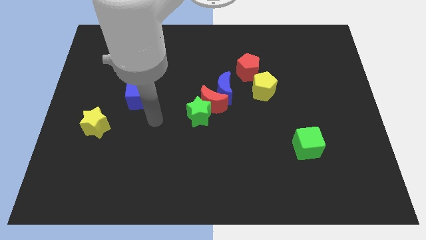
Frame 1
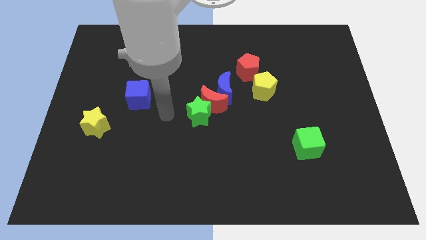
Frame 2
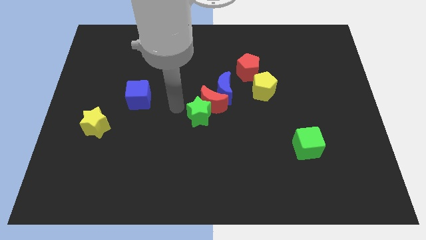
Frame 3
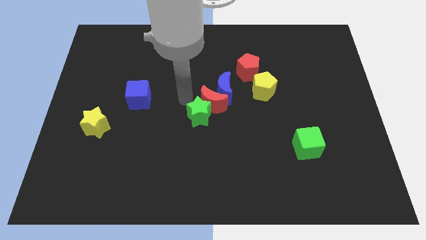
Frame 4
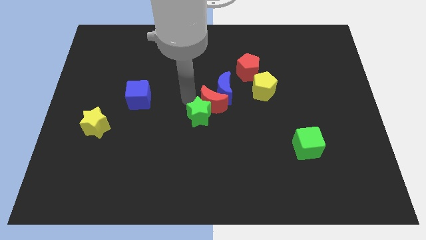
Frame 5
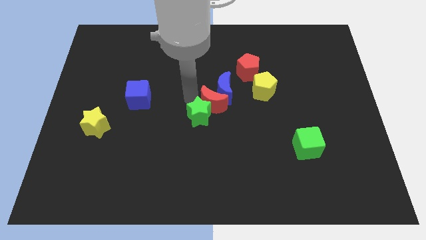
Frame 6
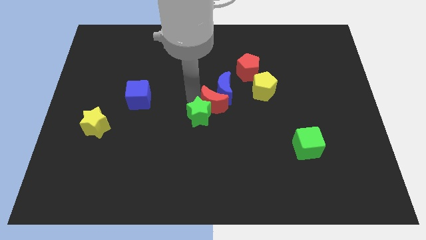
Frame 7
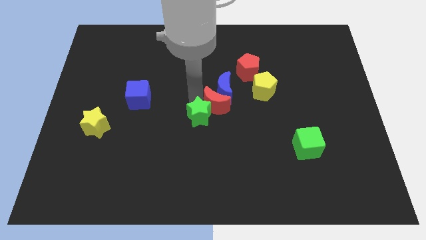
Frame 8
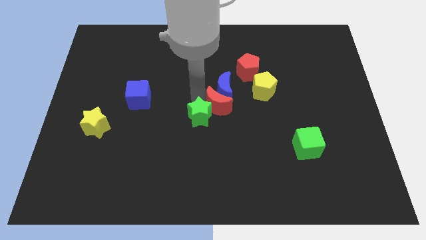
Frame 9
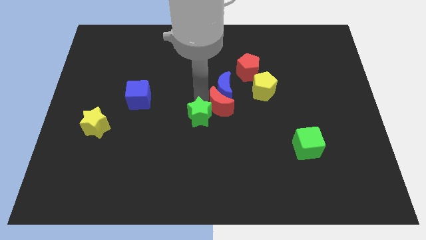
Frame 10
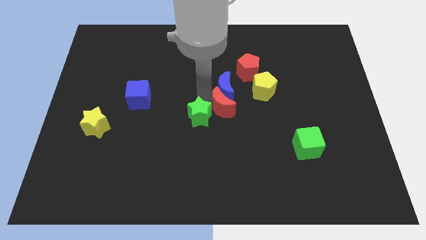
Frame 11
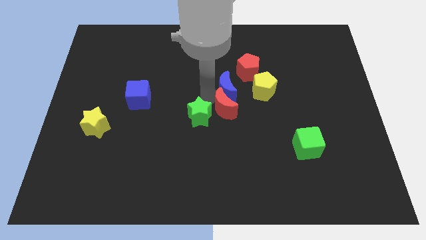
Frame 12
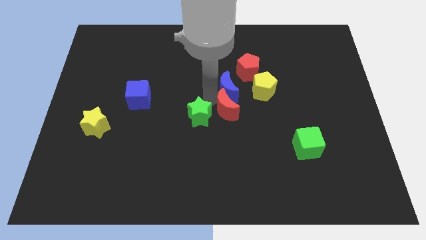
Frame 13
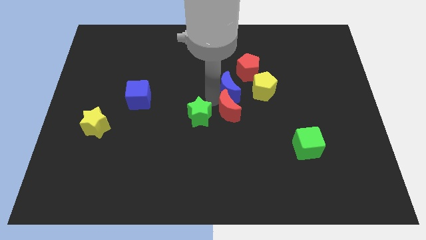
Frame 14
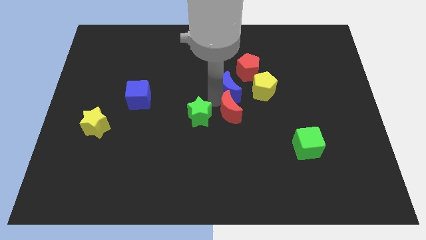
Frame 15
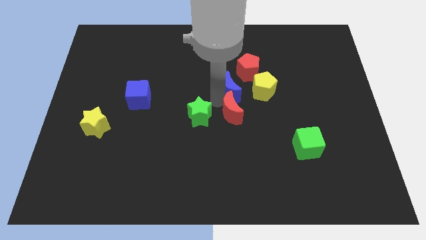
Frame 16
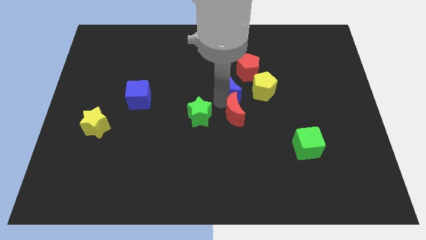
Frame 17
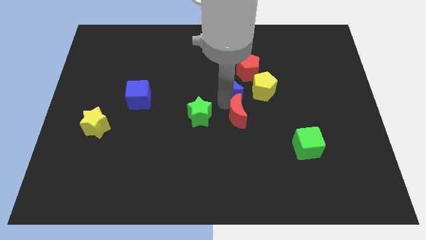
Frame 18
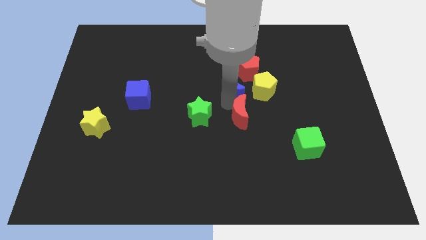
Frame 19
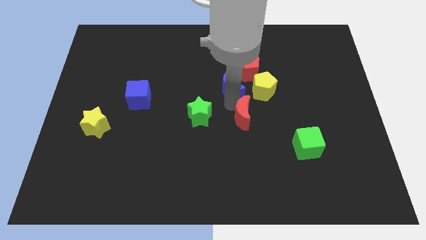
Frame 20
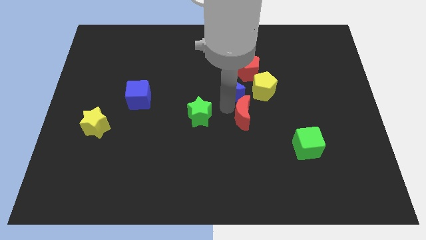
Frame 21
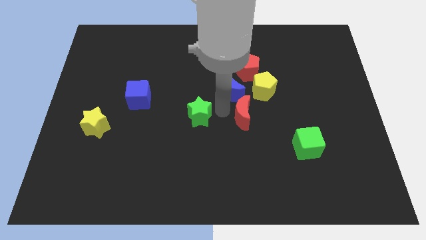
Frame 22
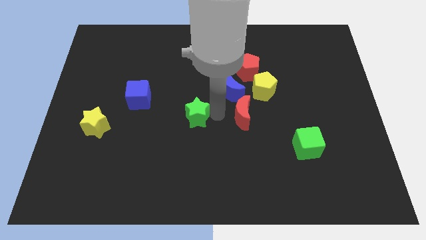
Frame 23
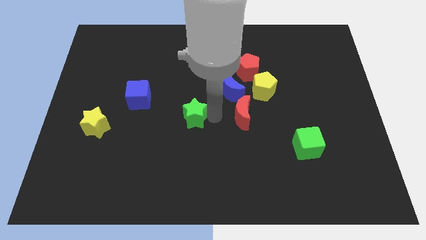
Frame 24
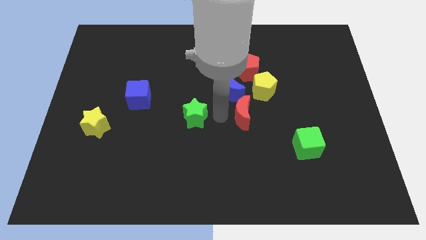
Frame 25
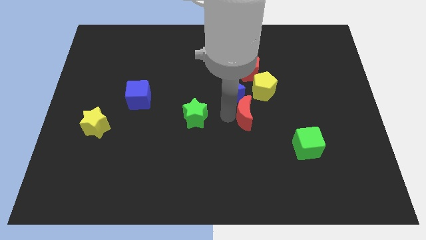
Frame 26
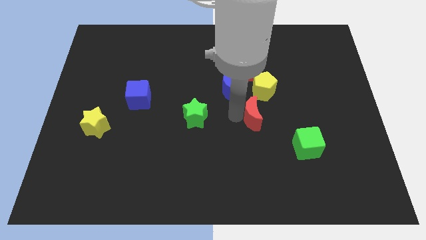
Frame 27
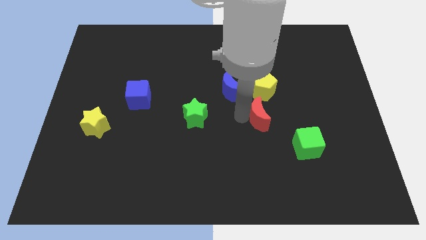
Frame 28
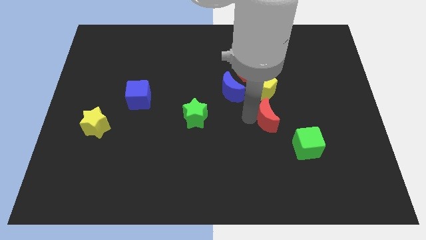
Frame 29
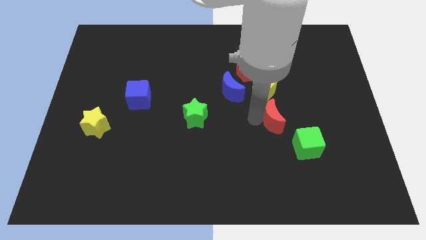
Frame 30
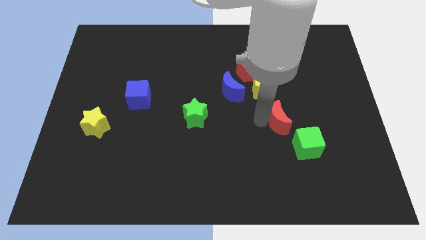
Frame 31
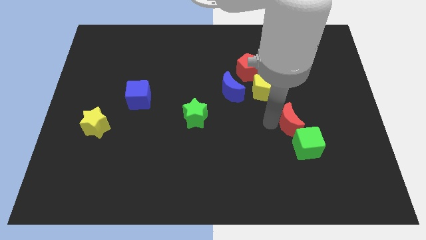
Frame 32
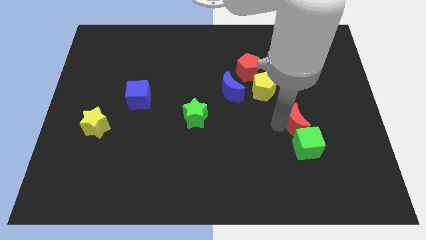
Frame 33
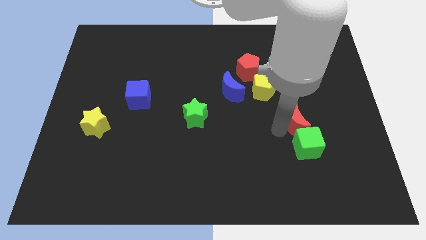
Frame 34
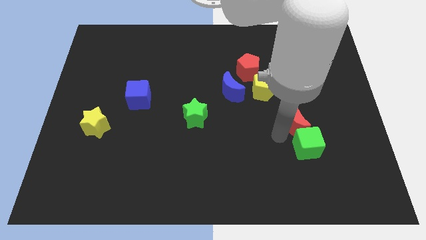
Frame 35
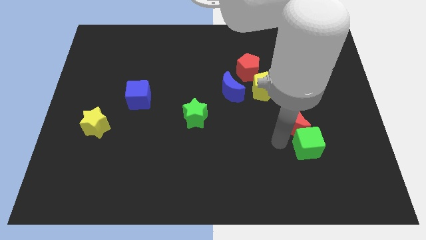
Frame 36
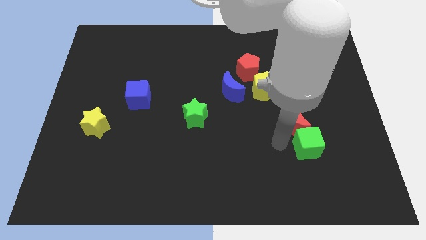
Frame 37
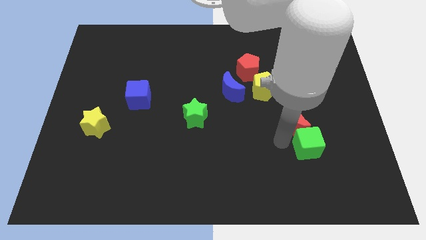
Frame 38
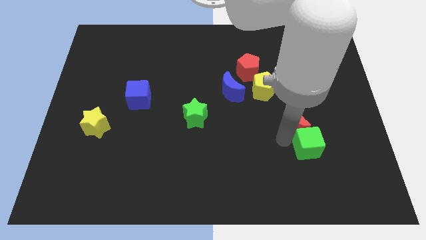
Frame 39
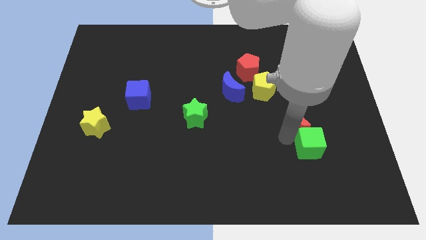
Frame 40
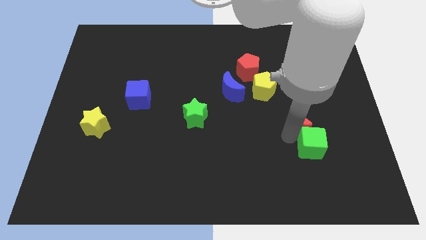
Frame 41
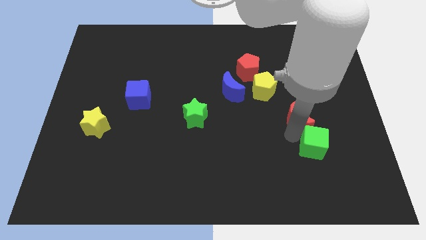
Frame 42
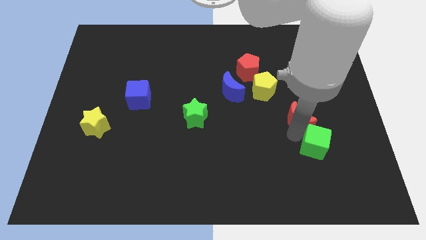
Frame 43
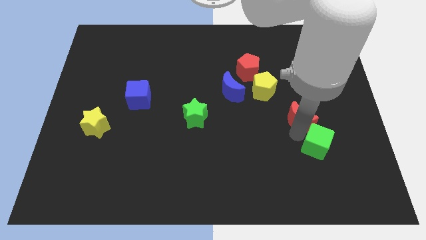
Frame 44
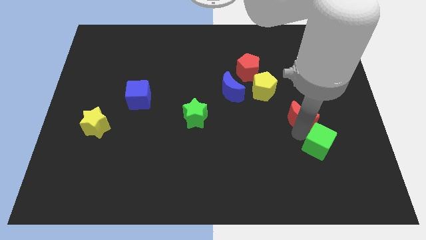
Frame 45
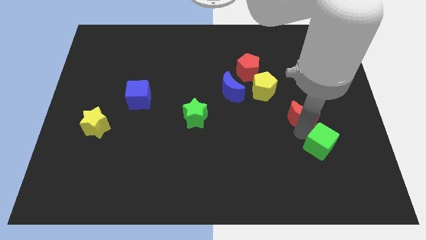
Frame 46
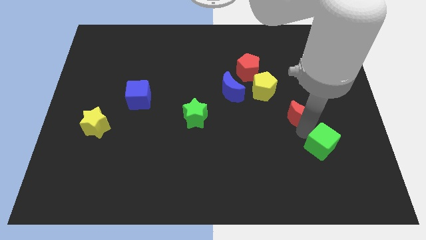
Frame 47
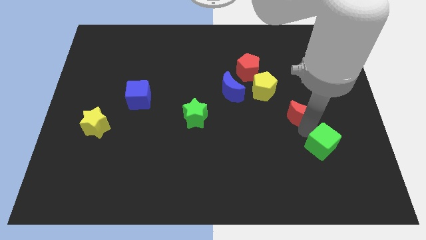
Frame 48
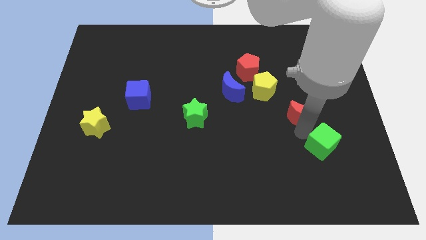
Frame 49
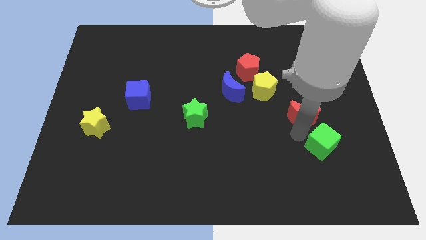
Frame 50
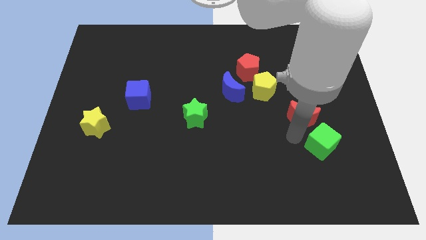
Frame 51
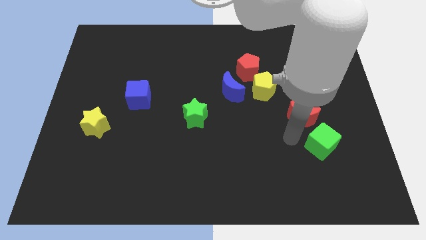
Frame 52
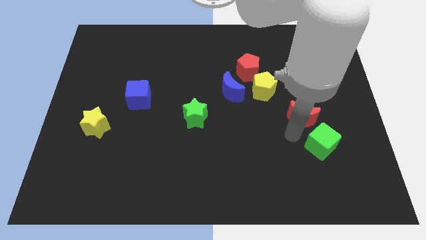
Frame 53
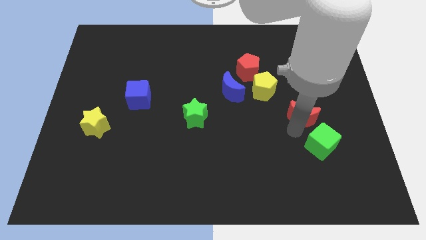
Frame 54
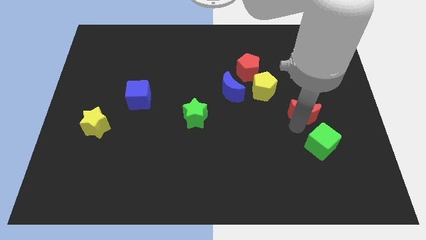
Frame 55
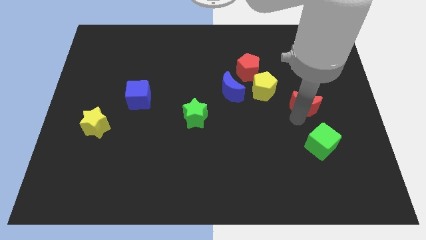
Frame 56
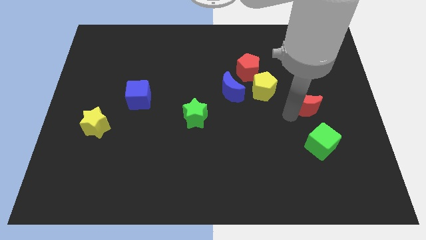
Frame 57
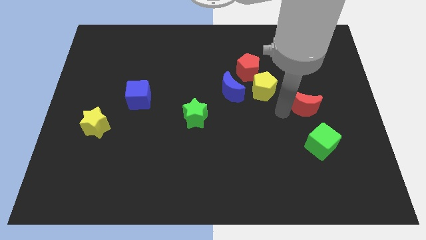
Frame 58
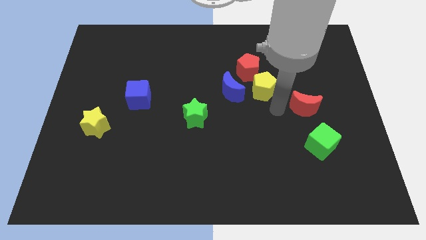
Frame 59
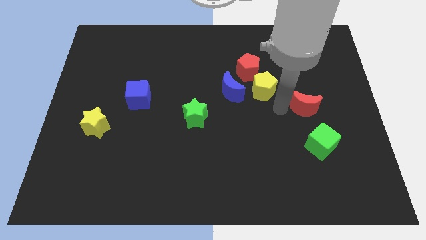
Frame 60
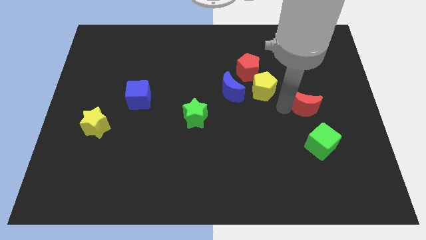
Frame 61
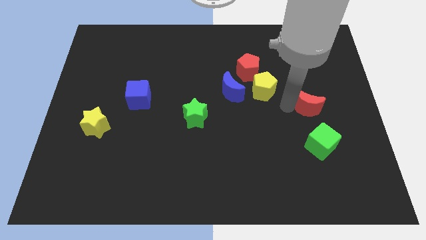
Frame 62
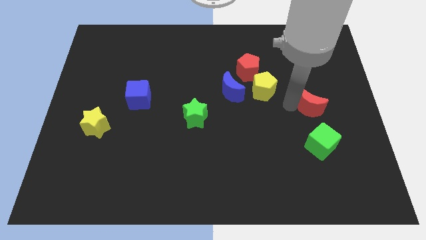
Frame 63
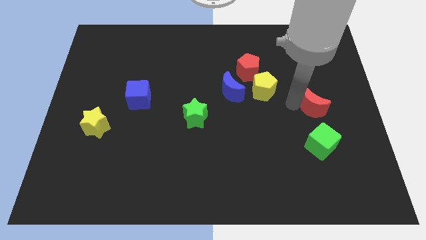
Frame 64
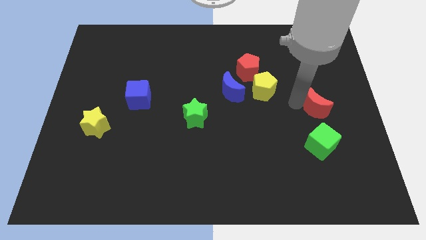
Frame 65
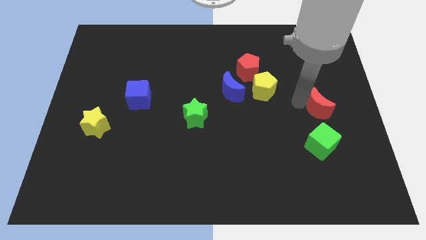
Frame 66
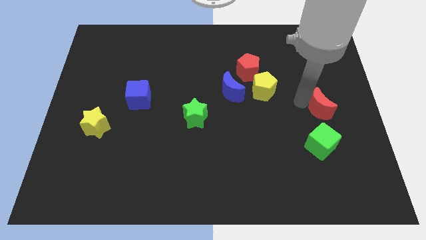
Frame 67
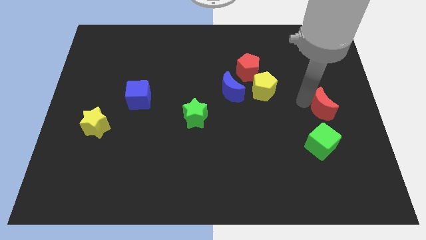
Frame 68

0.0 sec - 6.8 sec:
move the red moon to the right side
